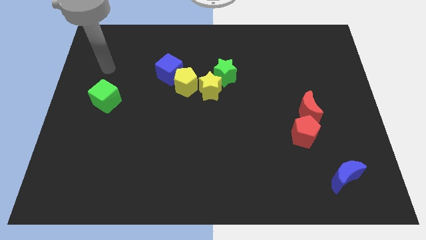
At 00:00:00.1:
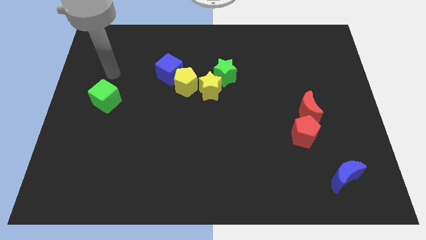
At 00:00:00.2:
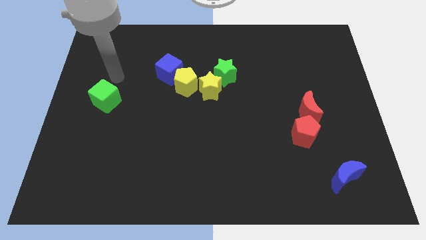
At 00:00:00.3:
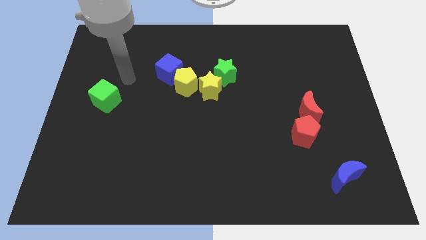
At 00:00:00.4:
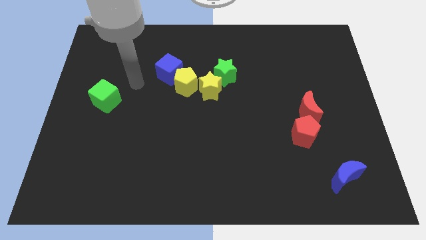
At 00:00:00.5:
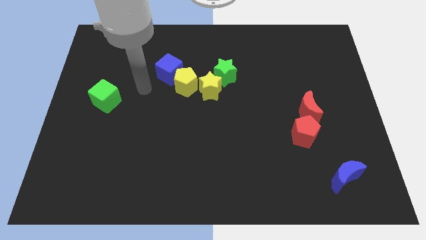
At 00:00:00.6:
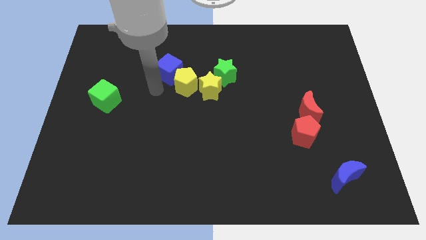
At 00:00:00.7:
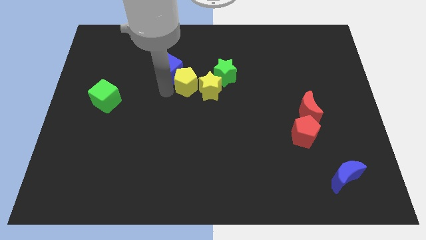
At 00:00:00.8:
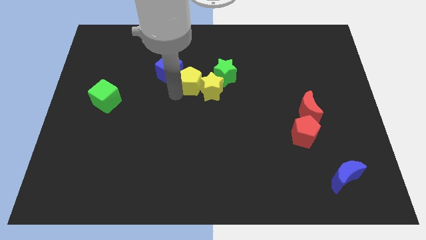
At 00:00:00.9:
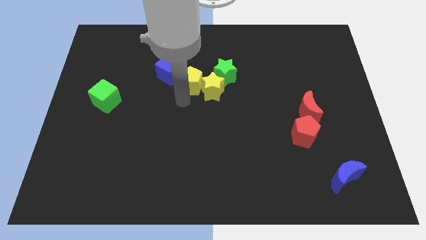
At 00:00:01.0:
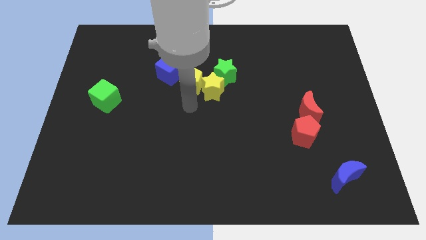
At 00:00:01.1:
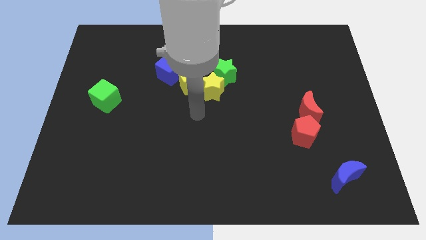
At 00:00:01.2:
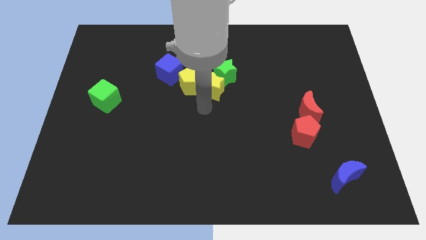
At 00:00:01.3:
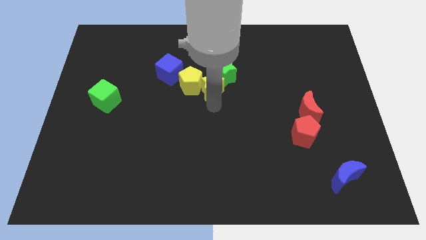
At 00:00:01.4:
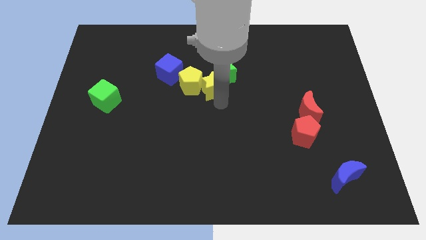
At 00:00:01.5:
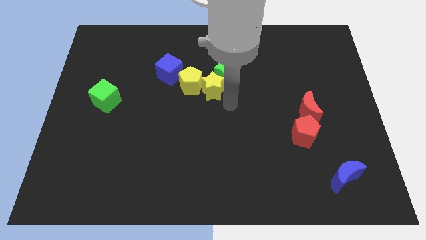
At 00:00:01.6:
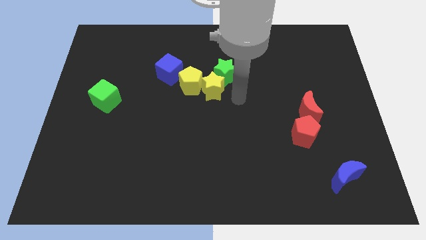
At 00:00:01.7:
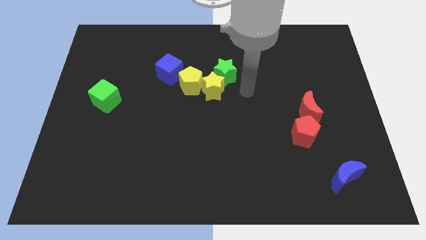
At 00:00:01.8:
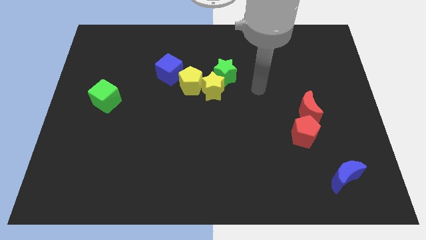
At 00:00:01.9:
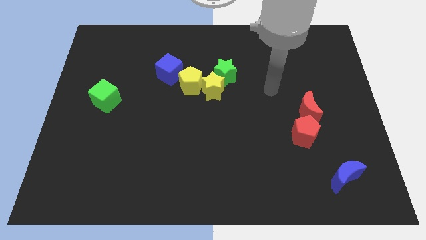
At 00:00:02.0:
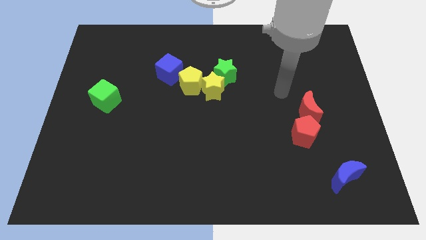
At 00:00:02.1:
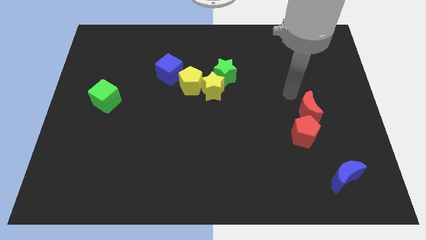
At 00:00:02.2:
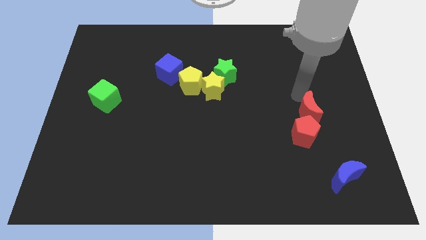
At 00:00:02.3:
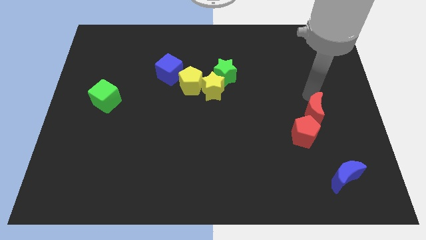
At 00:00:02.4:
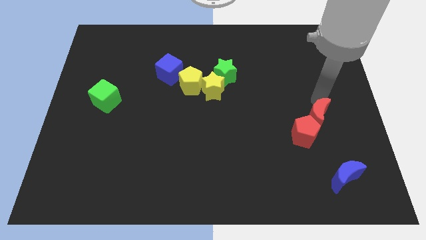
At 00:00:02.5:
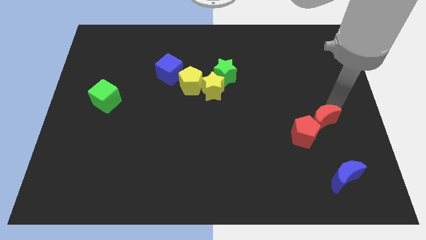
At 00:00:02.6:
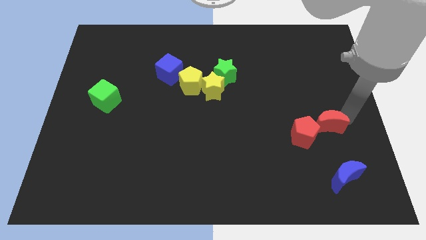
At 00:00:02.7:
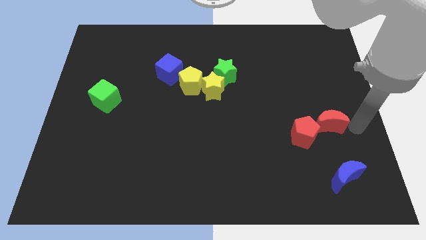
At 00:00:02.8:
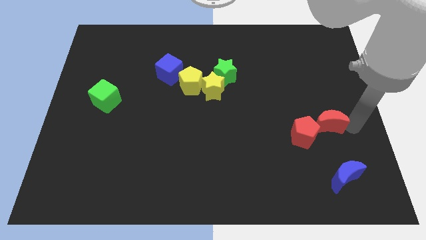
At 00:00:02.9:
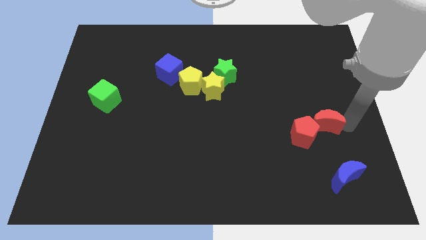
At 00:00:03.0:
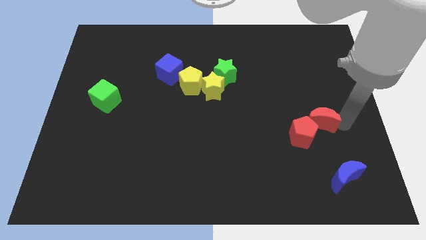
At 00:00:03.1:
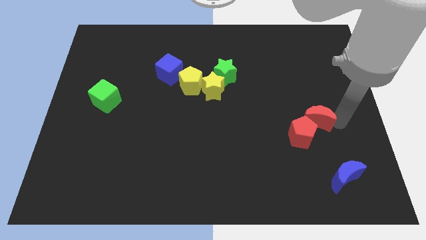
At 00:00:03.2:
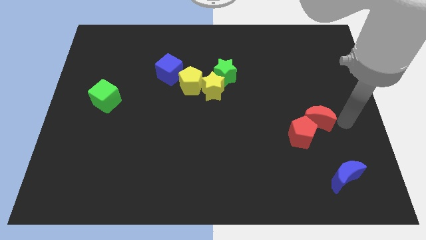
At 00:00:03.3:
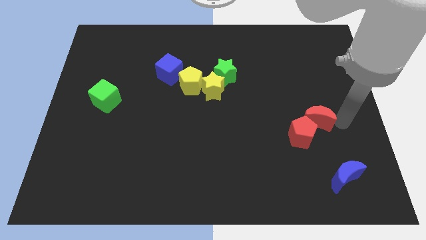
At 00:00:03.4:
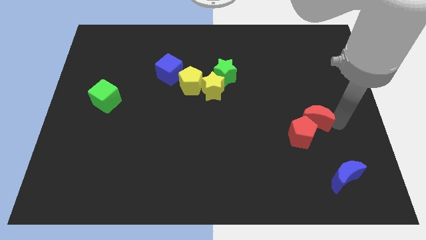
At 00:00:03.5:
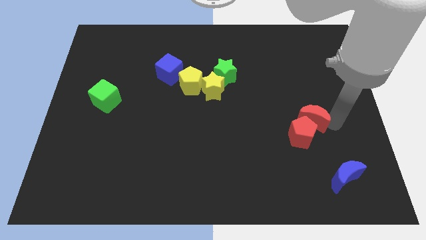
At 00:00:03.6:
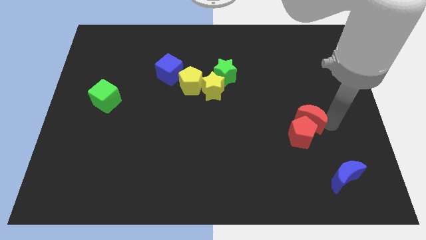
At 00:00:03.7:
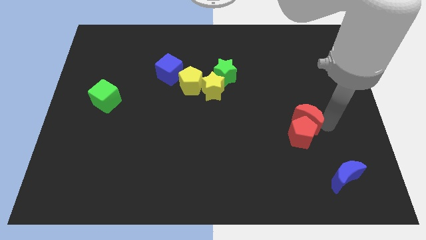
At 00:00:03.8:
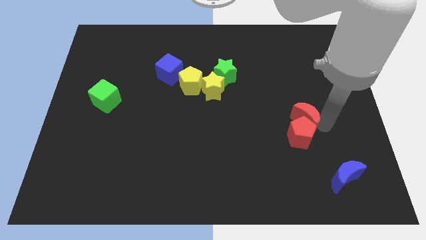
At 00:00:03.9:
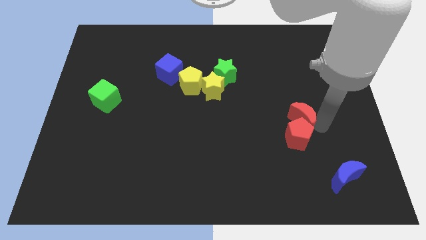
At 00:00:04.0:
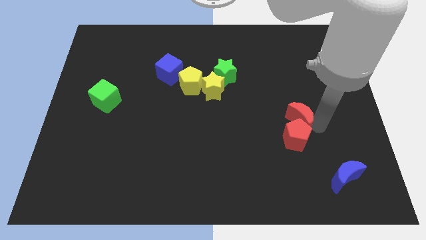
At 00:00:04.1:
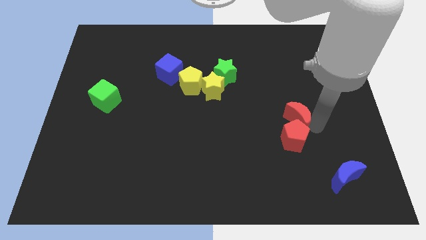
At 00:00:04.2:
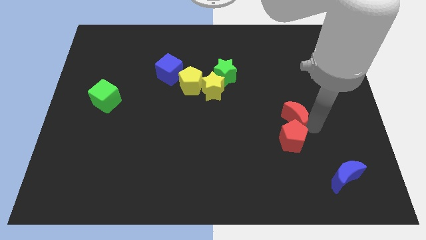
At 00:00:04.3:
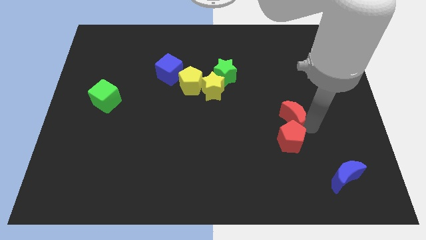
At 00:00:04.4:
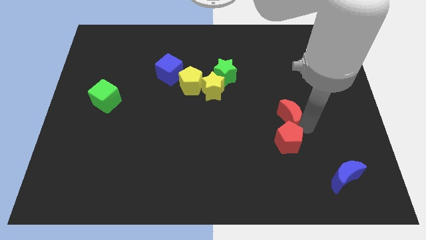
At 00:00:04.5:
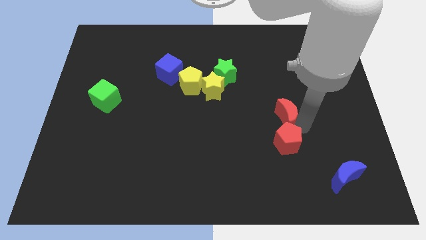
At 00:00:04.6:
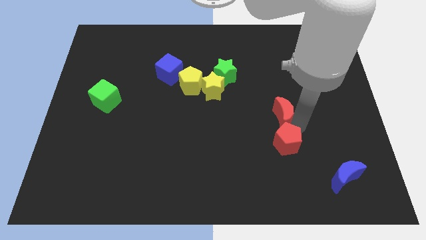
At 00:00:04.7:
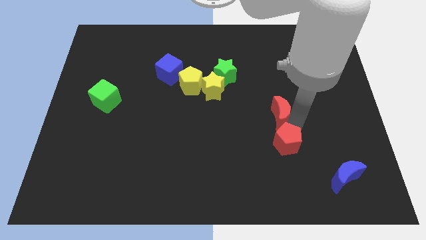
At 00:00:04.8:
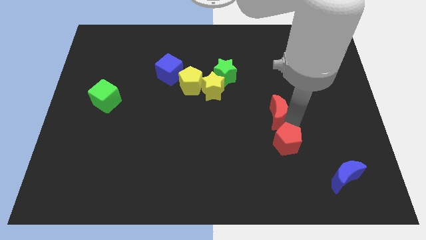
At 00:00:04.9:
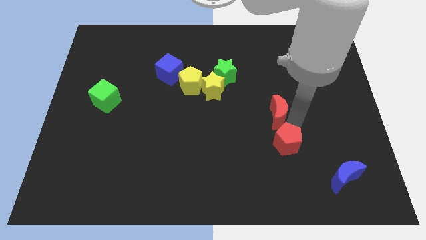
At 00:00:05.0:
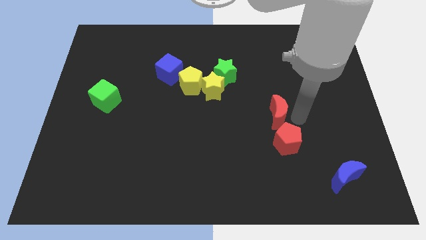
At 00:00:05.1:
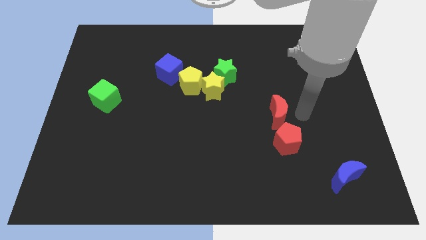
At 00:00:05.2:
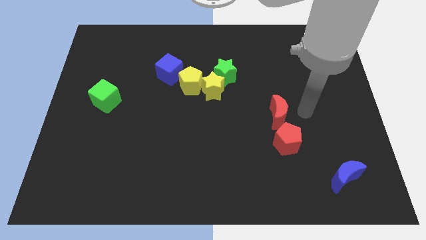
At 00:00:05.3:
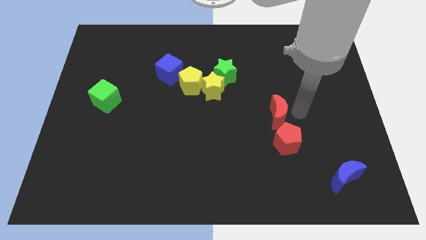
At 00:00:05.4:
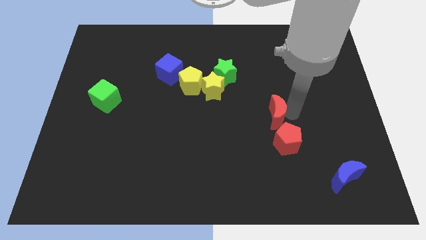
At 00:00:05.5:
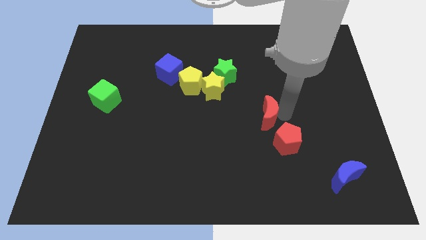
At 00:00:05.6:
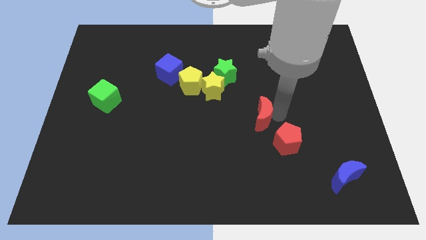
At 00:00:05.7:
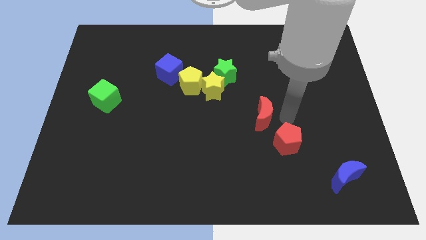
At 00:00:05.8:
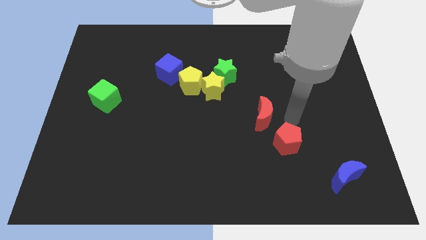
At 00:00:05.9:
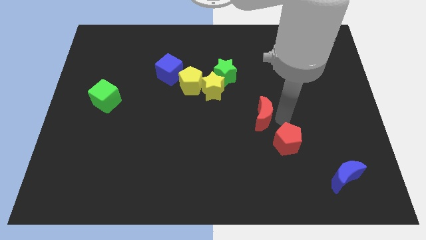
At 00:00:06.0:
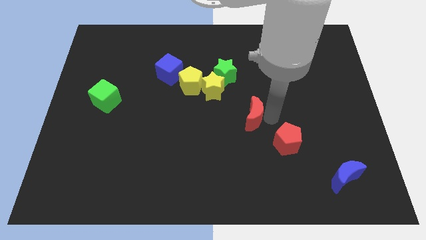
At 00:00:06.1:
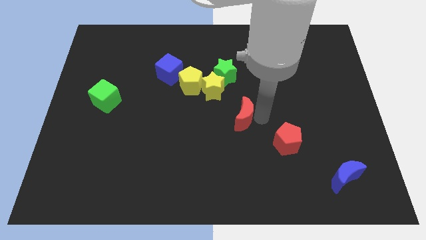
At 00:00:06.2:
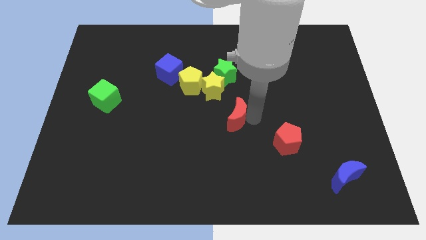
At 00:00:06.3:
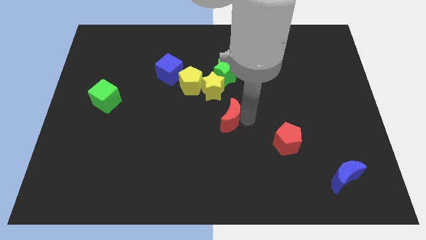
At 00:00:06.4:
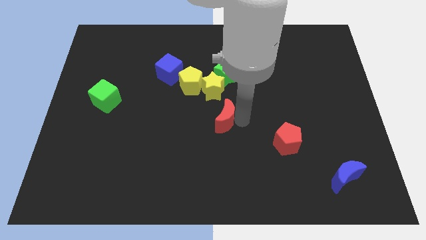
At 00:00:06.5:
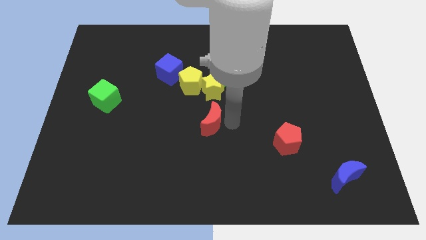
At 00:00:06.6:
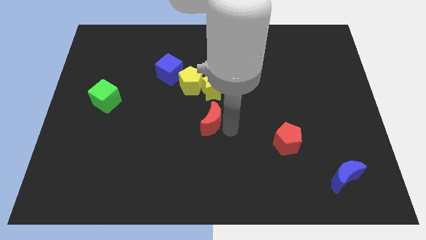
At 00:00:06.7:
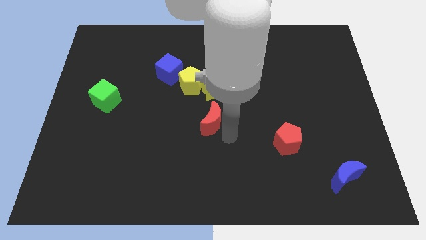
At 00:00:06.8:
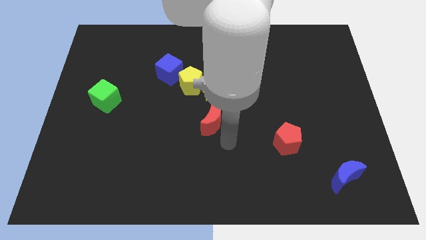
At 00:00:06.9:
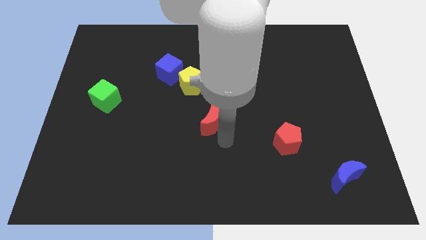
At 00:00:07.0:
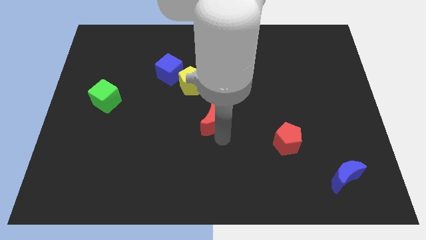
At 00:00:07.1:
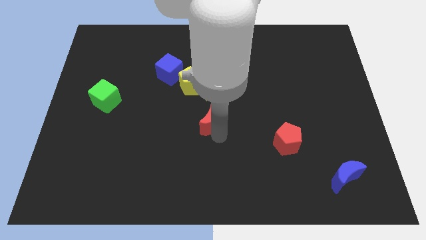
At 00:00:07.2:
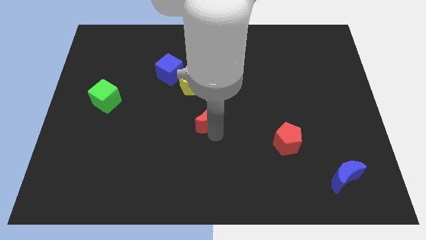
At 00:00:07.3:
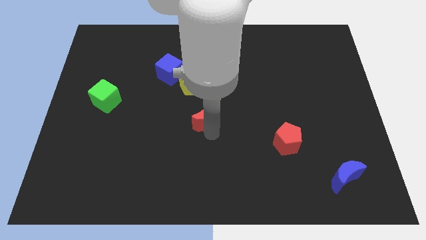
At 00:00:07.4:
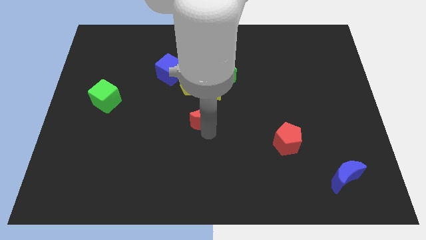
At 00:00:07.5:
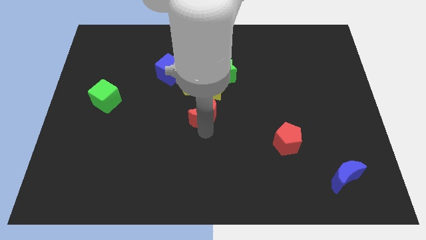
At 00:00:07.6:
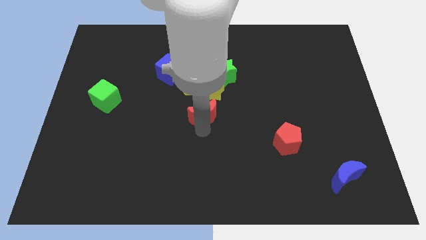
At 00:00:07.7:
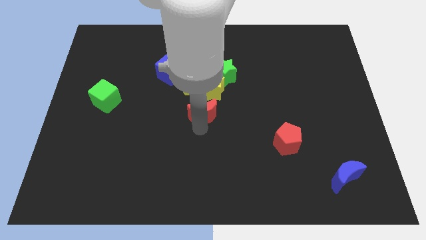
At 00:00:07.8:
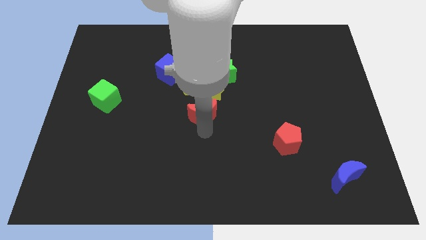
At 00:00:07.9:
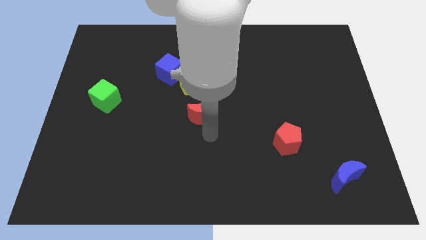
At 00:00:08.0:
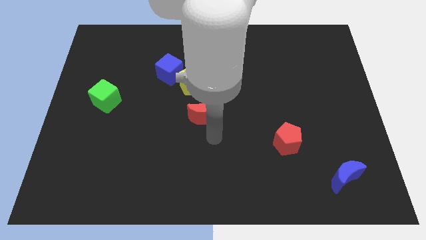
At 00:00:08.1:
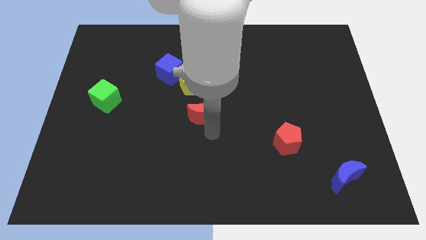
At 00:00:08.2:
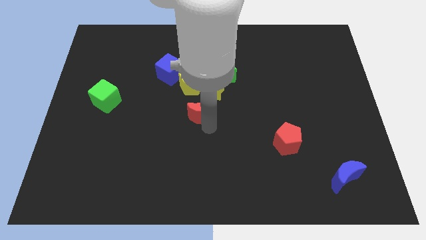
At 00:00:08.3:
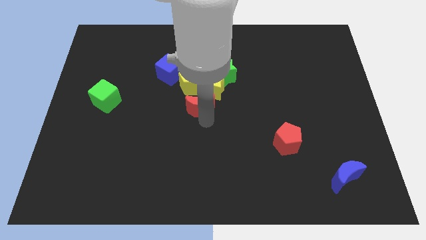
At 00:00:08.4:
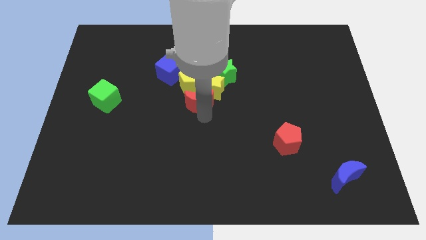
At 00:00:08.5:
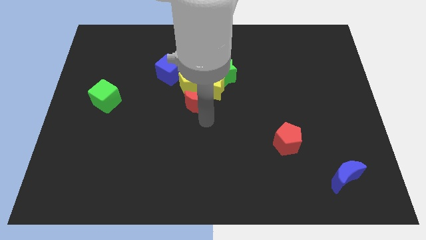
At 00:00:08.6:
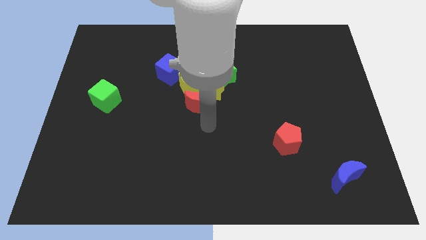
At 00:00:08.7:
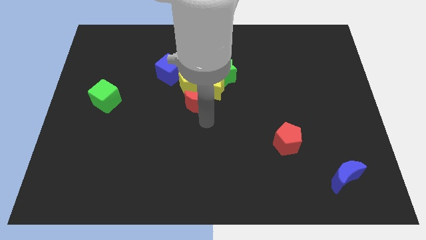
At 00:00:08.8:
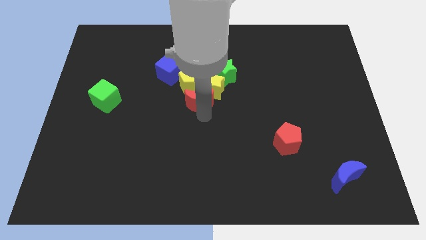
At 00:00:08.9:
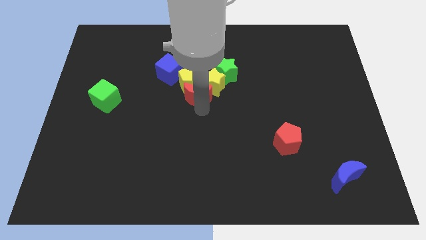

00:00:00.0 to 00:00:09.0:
move the red moon to the yellow pentagon
